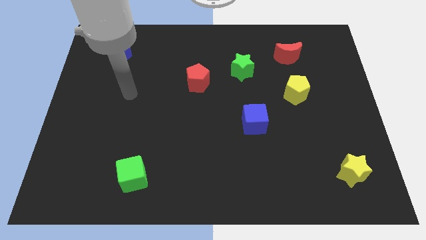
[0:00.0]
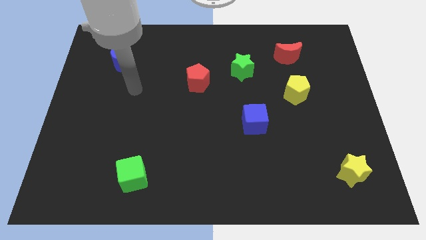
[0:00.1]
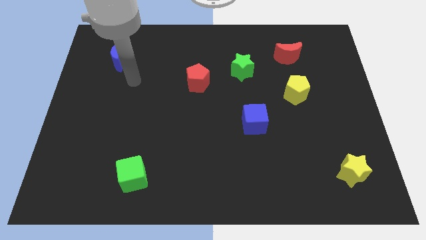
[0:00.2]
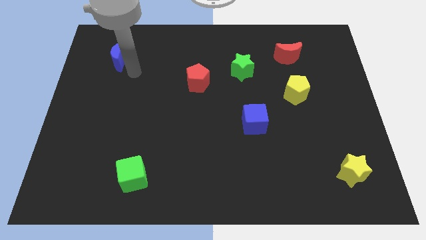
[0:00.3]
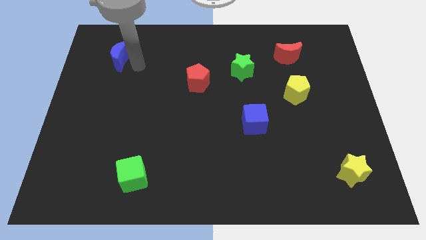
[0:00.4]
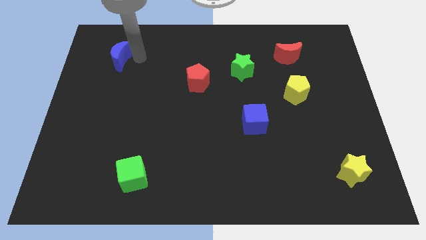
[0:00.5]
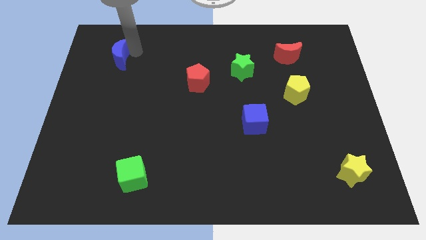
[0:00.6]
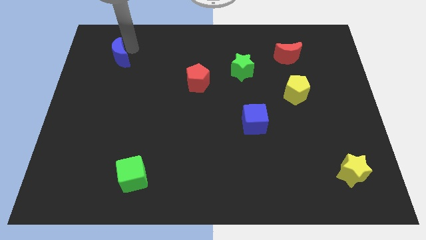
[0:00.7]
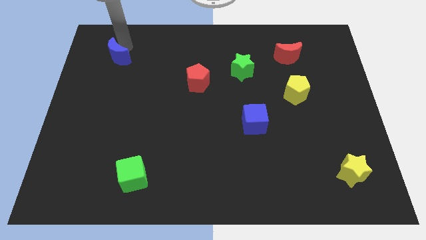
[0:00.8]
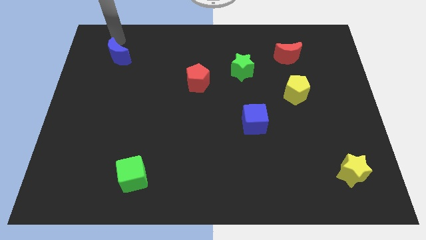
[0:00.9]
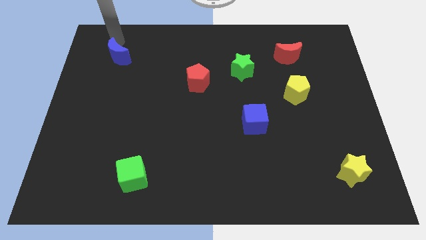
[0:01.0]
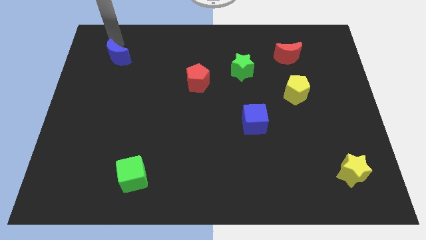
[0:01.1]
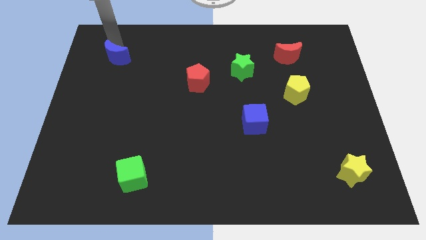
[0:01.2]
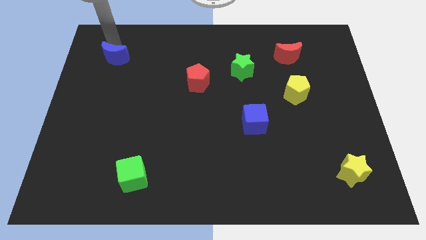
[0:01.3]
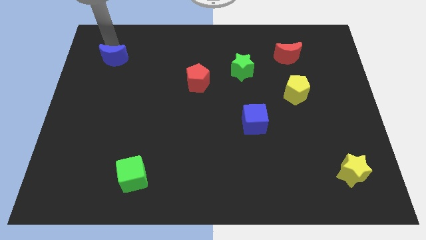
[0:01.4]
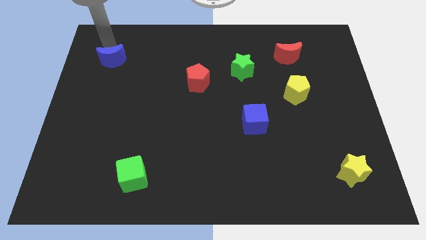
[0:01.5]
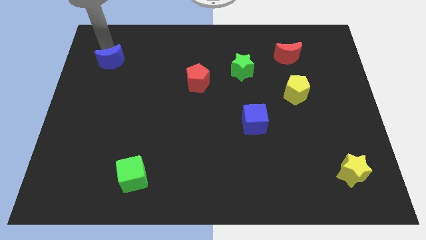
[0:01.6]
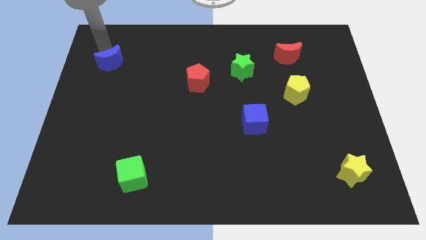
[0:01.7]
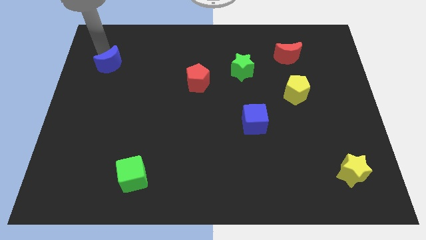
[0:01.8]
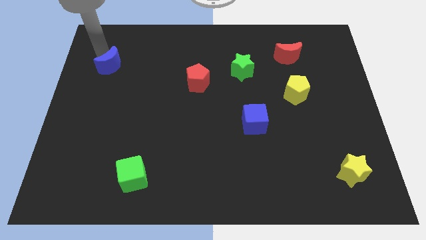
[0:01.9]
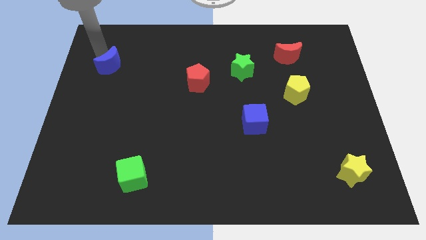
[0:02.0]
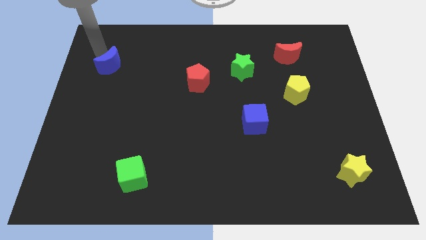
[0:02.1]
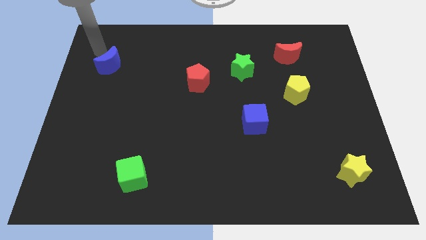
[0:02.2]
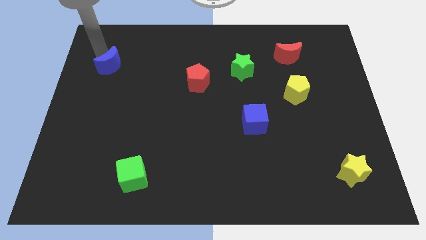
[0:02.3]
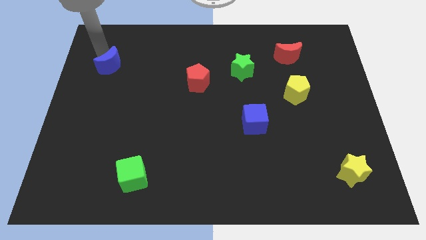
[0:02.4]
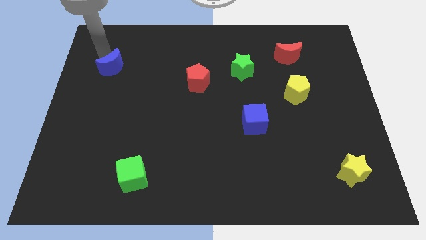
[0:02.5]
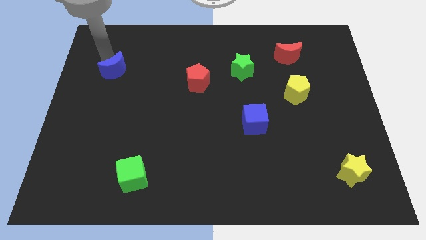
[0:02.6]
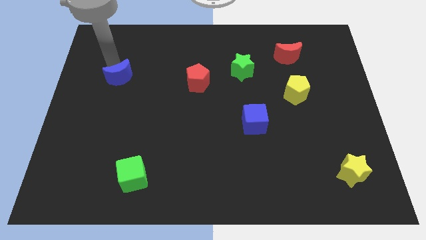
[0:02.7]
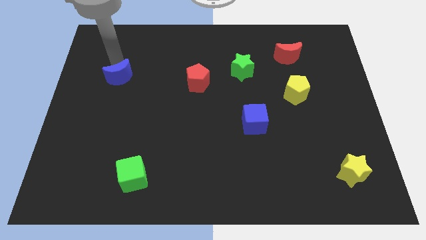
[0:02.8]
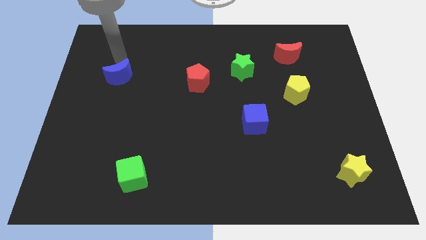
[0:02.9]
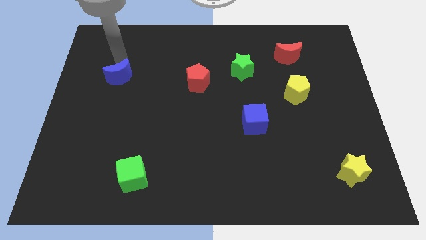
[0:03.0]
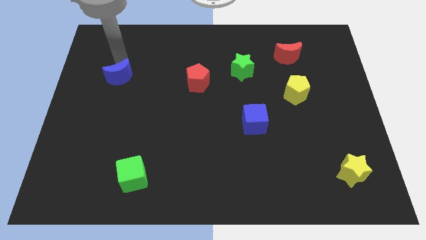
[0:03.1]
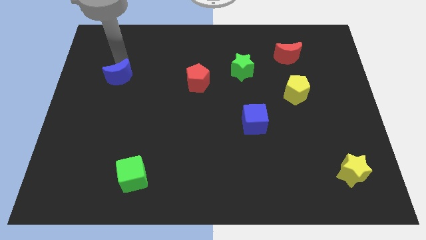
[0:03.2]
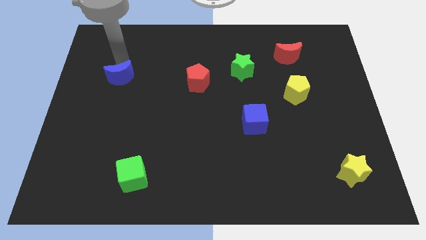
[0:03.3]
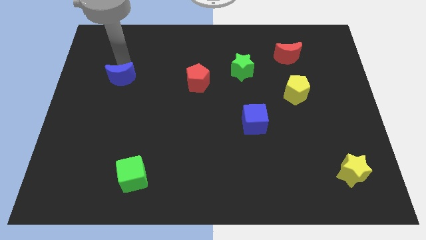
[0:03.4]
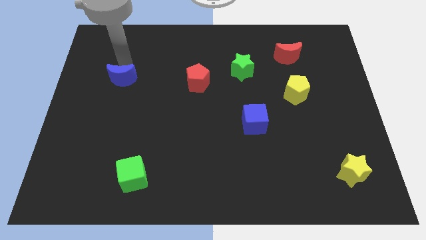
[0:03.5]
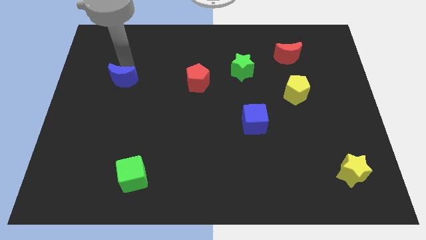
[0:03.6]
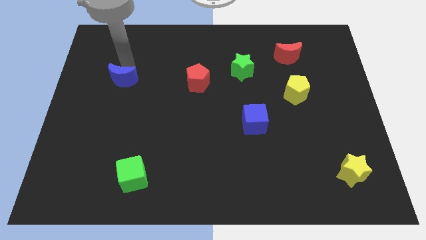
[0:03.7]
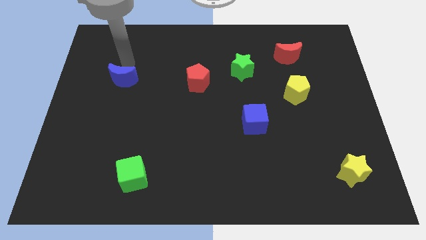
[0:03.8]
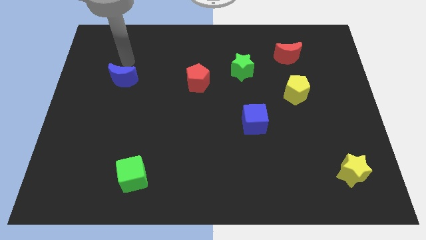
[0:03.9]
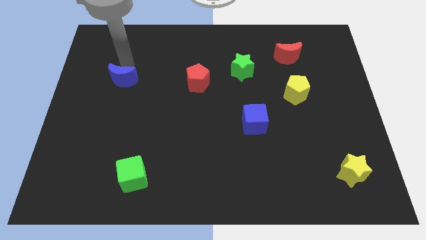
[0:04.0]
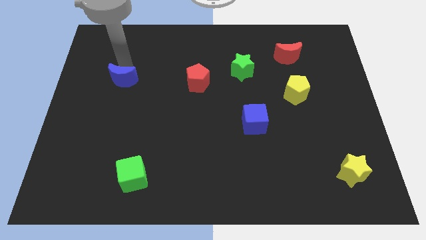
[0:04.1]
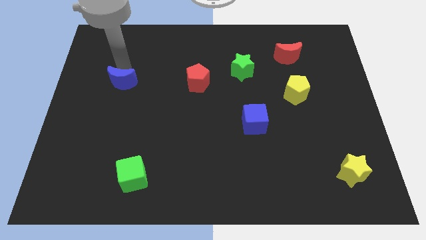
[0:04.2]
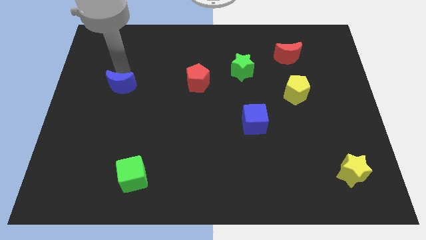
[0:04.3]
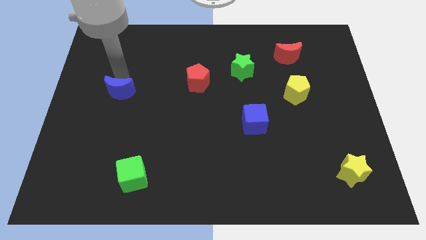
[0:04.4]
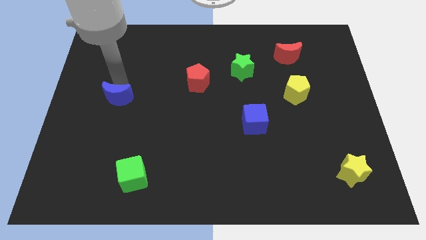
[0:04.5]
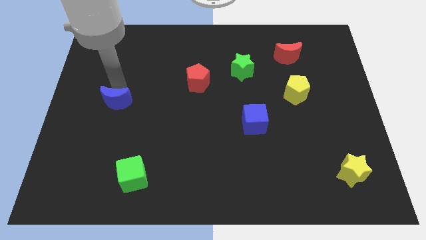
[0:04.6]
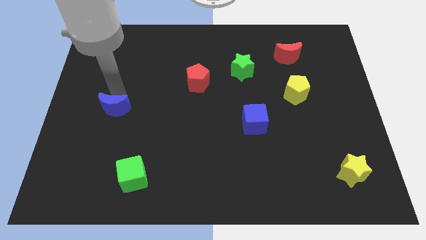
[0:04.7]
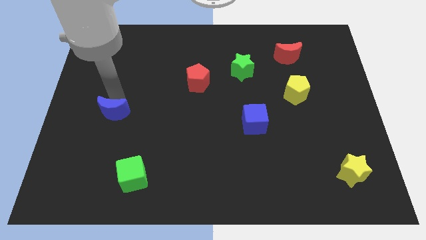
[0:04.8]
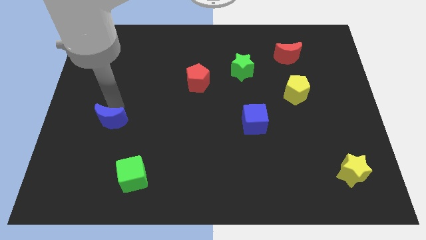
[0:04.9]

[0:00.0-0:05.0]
push the blue moon downwards

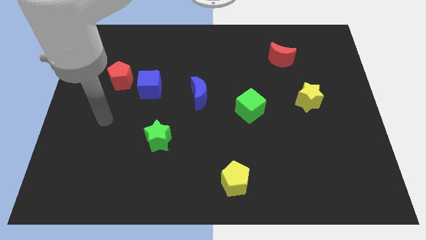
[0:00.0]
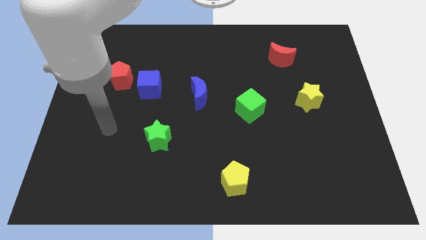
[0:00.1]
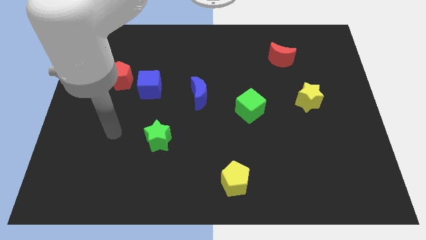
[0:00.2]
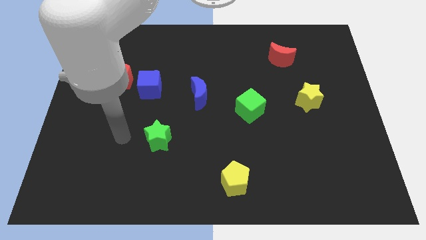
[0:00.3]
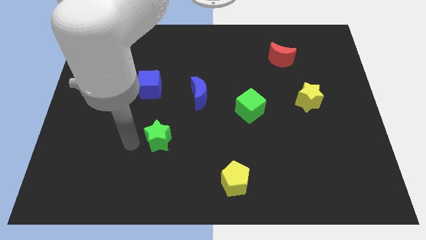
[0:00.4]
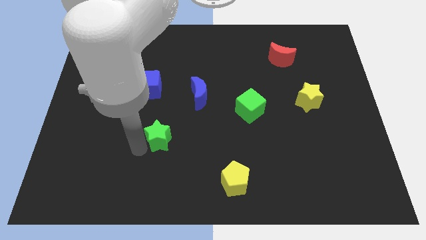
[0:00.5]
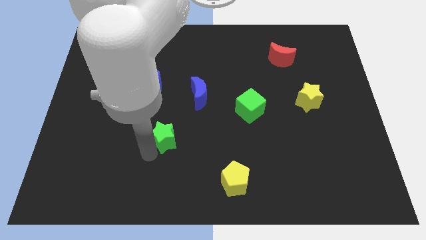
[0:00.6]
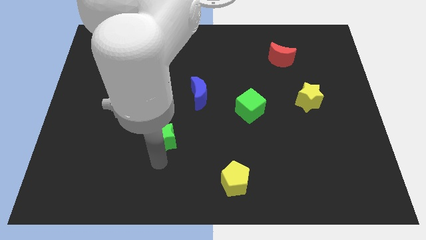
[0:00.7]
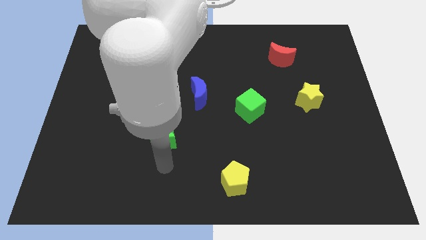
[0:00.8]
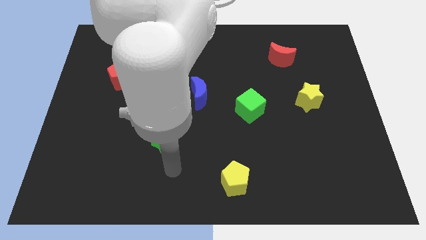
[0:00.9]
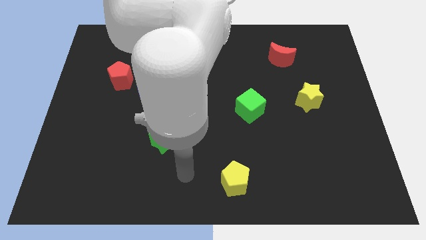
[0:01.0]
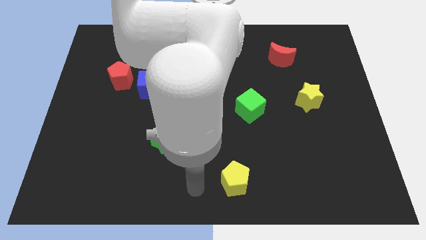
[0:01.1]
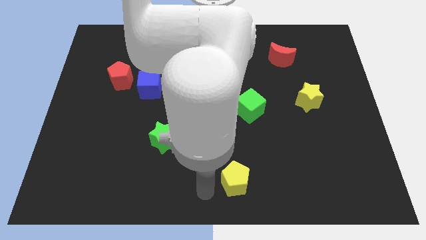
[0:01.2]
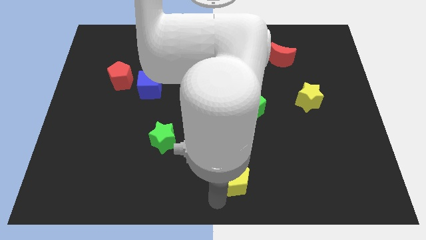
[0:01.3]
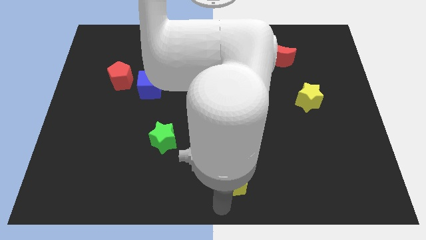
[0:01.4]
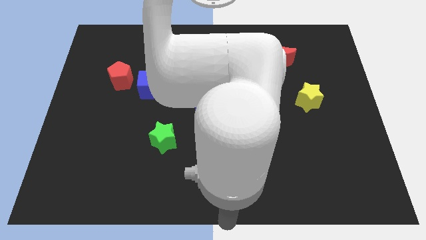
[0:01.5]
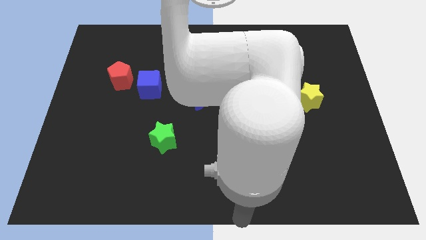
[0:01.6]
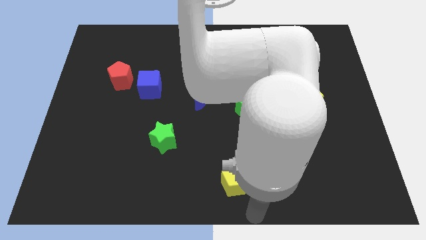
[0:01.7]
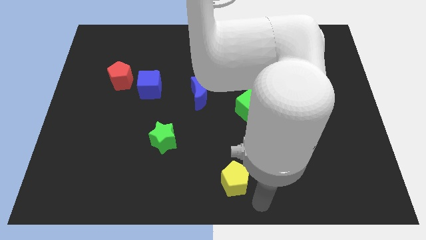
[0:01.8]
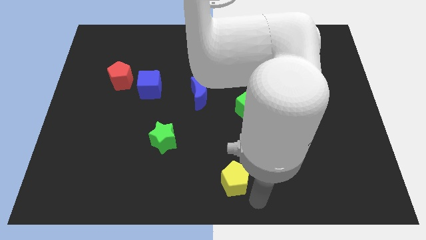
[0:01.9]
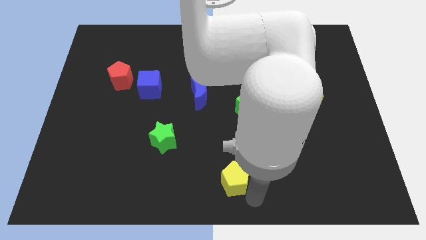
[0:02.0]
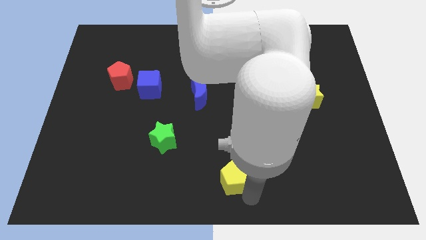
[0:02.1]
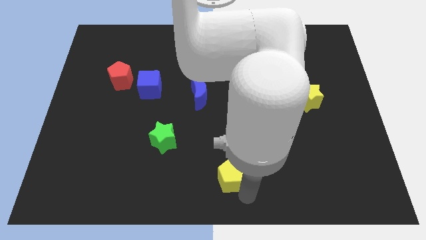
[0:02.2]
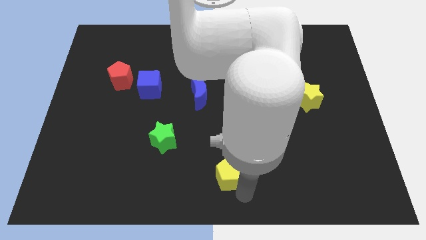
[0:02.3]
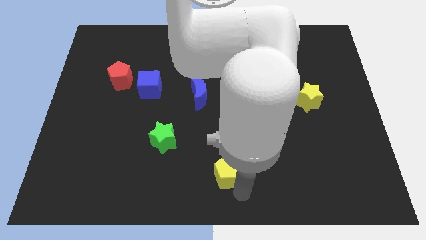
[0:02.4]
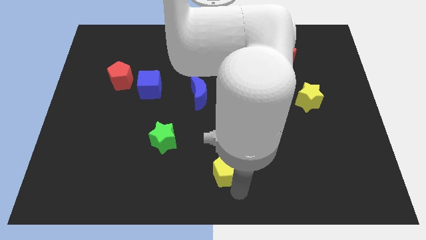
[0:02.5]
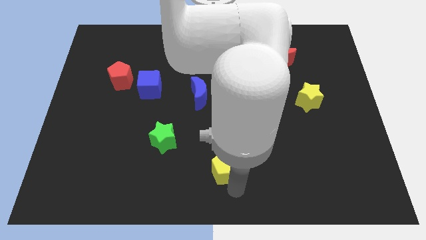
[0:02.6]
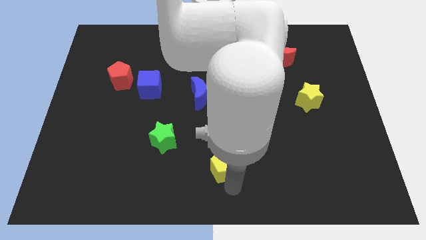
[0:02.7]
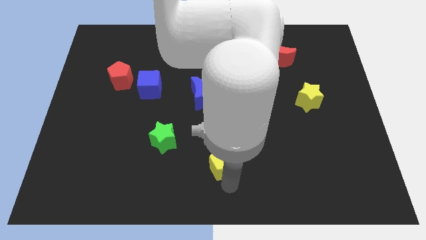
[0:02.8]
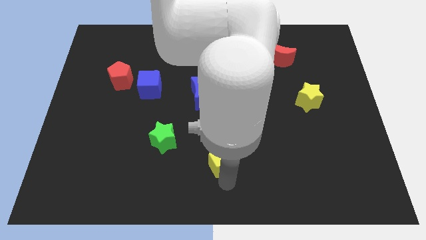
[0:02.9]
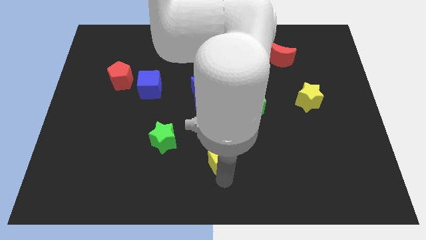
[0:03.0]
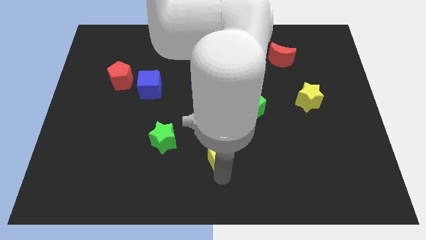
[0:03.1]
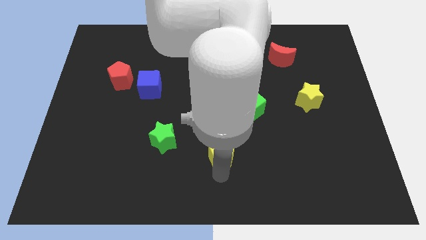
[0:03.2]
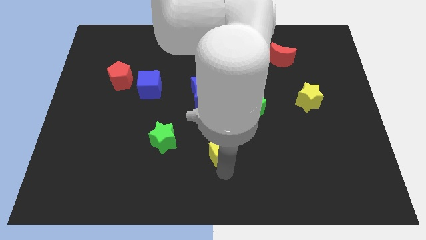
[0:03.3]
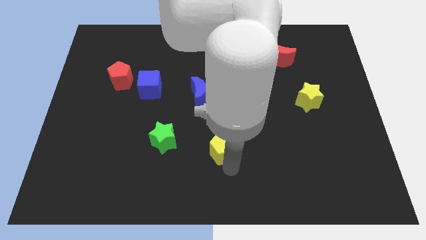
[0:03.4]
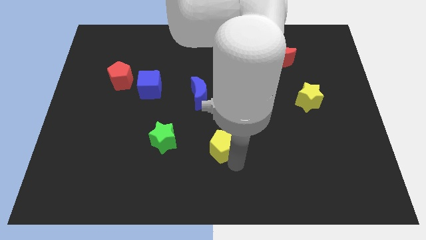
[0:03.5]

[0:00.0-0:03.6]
slightly slide the yellow pentagon up and to the left

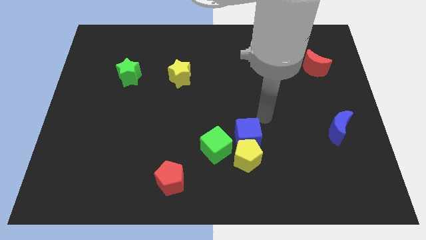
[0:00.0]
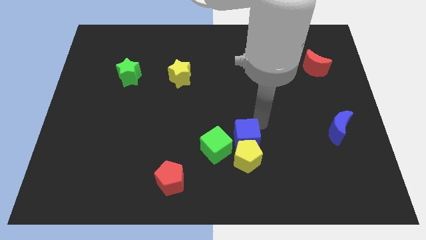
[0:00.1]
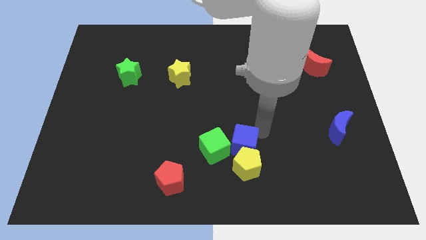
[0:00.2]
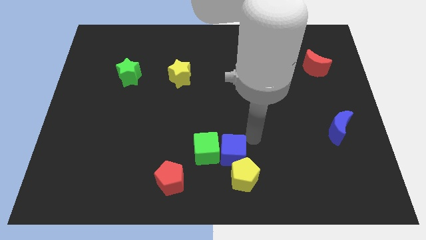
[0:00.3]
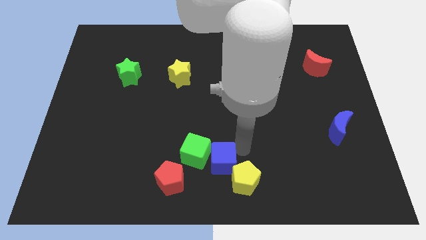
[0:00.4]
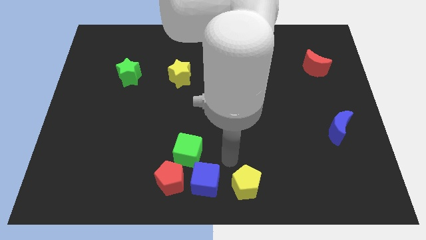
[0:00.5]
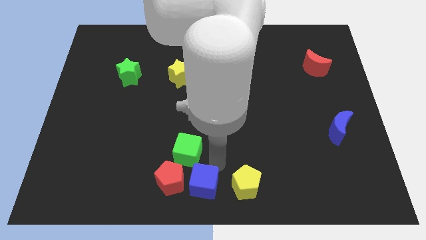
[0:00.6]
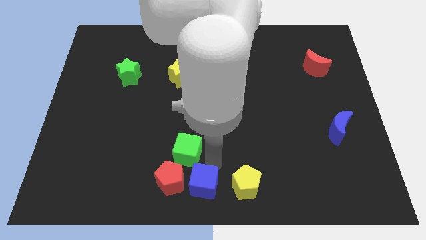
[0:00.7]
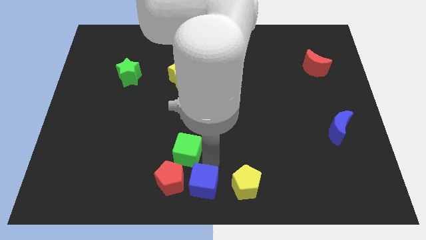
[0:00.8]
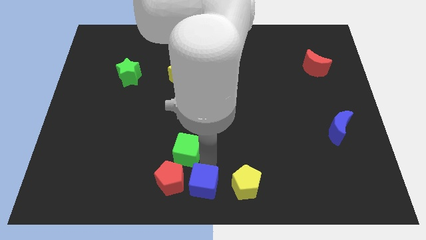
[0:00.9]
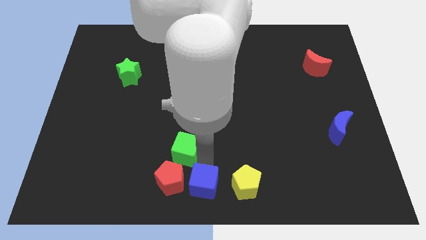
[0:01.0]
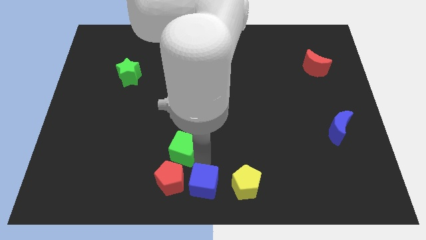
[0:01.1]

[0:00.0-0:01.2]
slide the green cube left a bit
